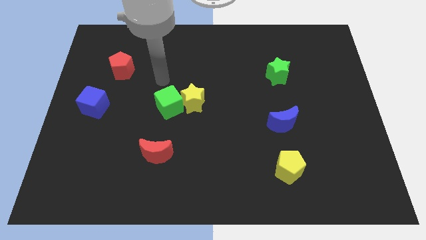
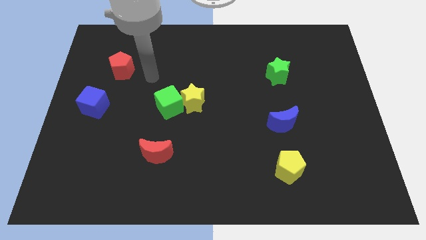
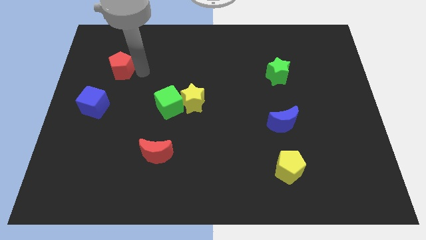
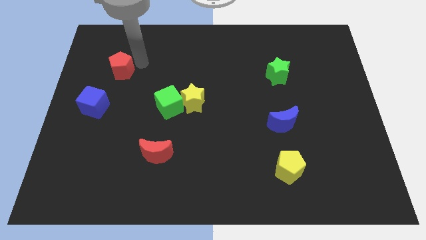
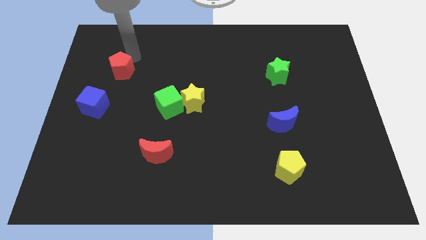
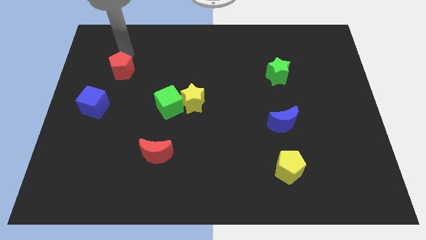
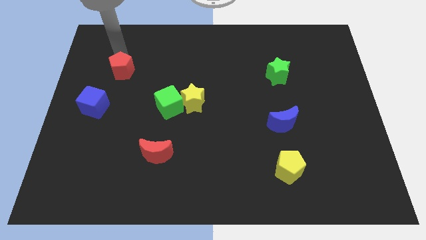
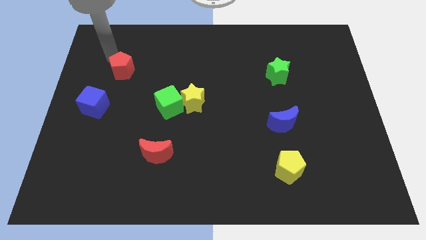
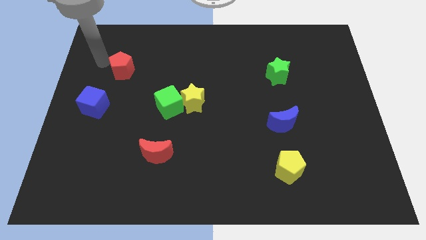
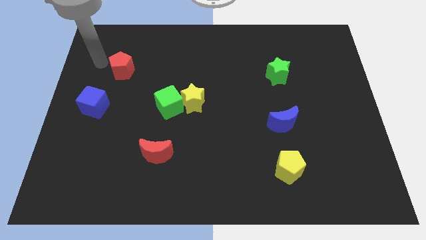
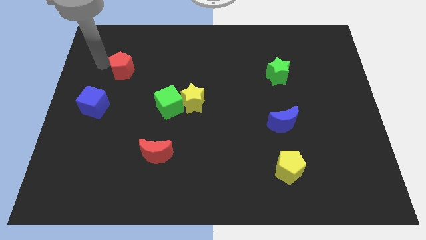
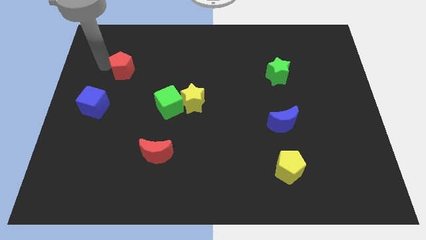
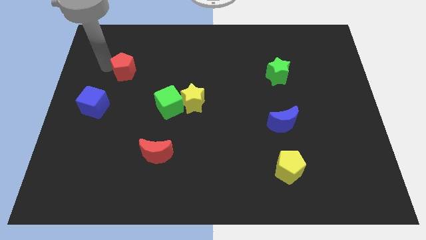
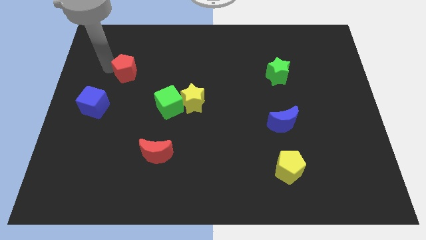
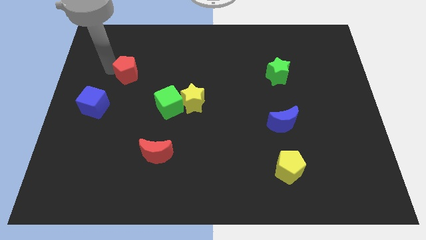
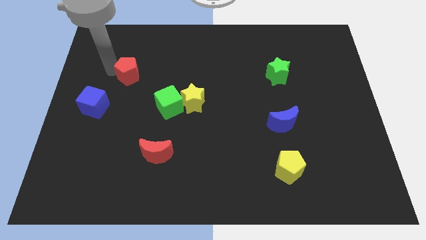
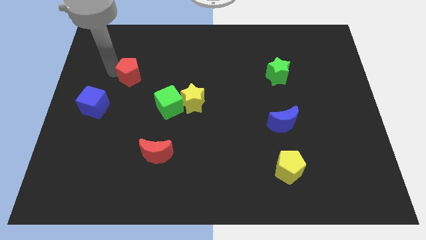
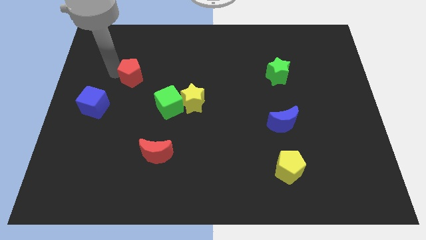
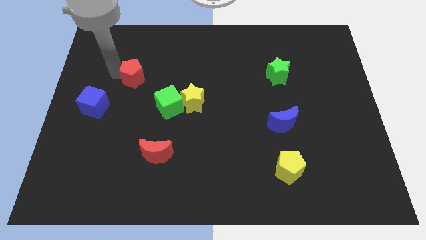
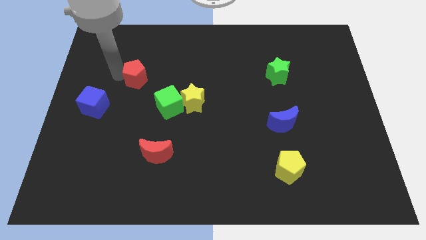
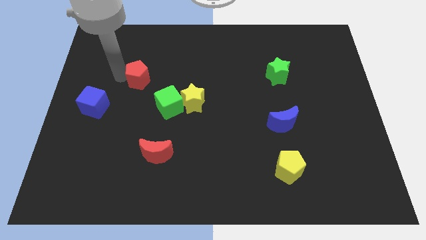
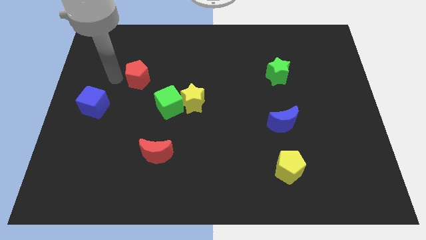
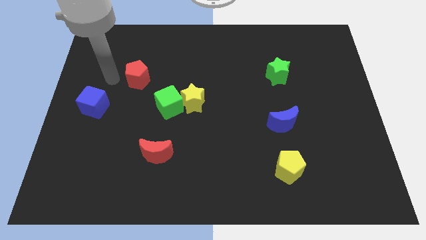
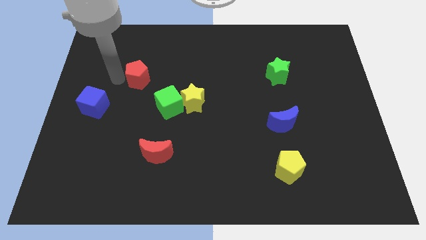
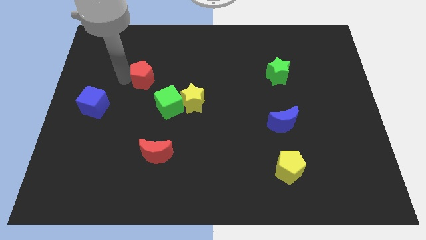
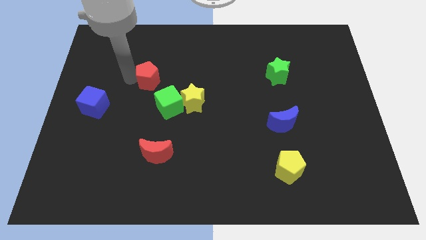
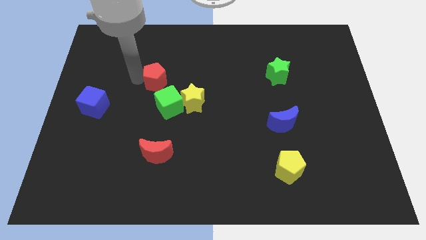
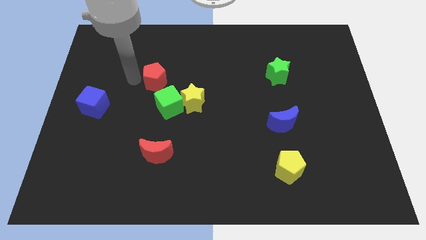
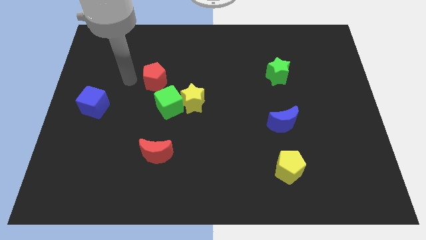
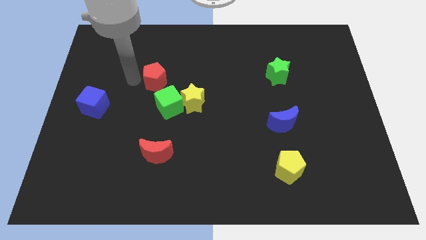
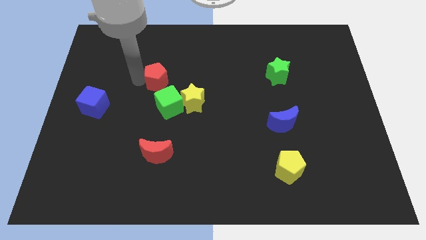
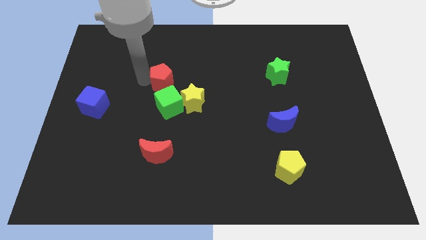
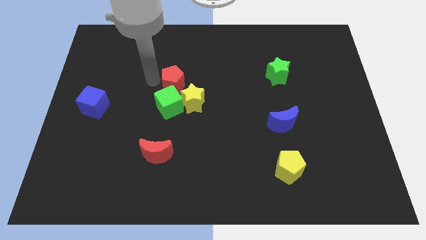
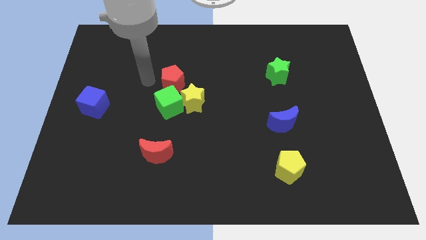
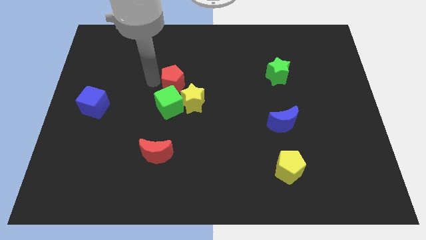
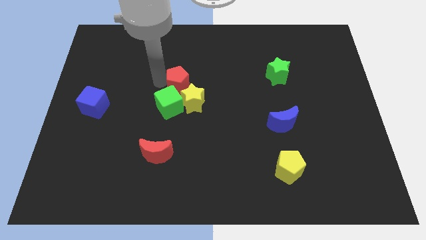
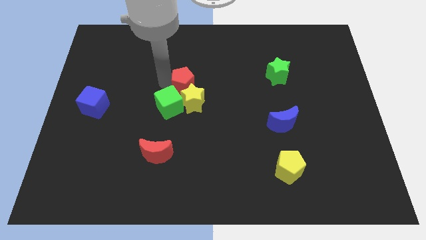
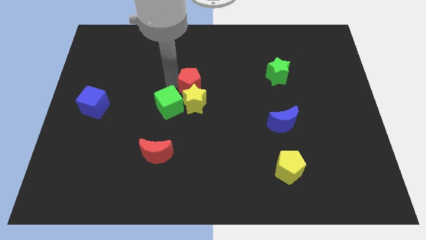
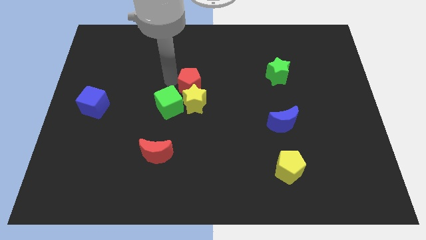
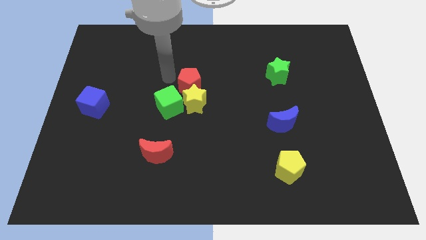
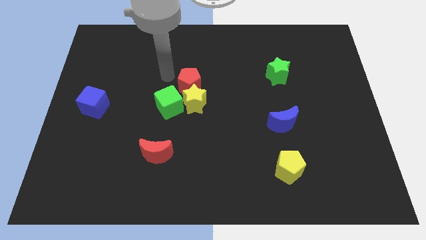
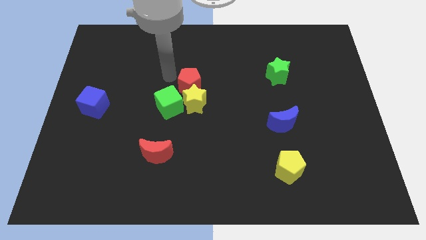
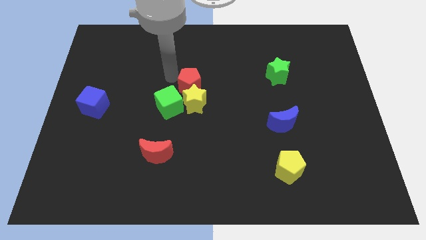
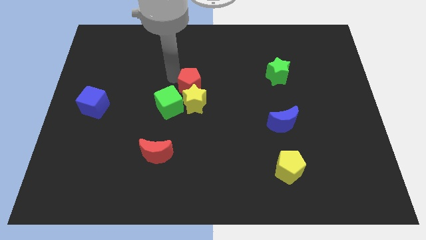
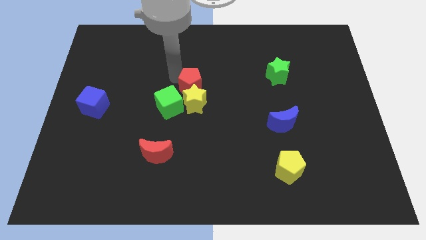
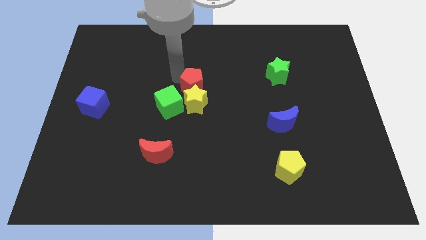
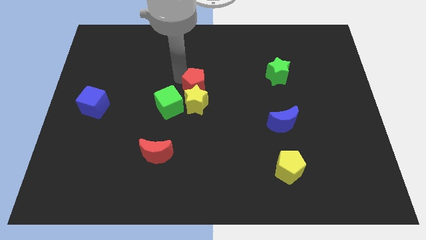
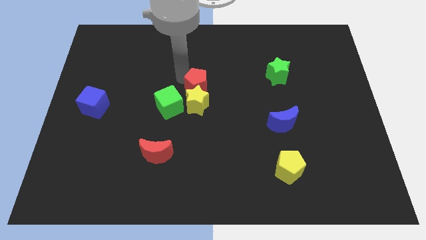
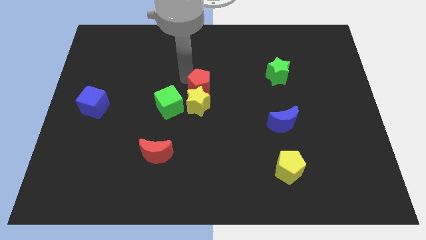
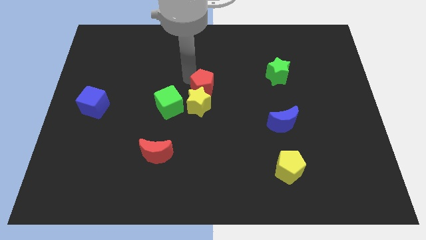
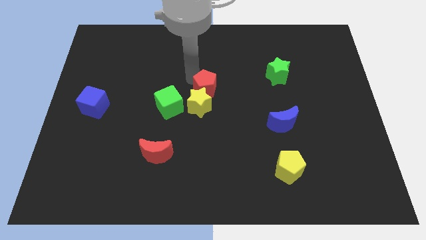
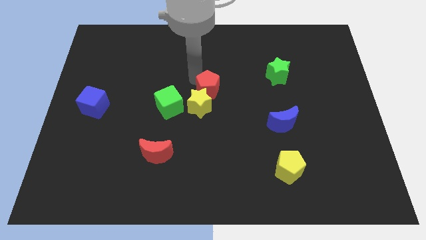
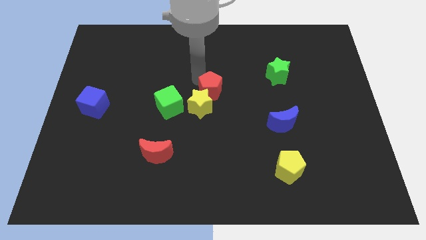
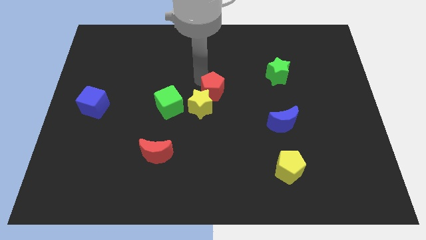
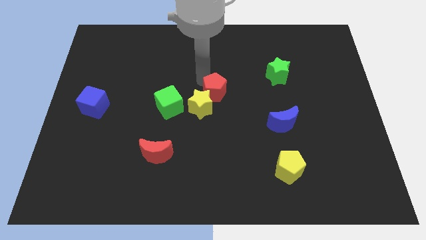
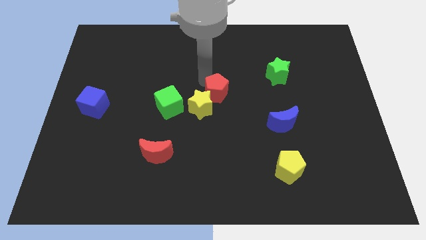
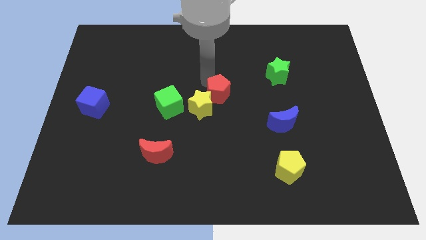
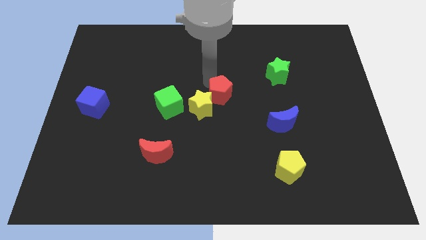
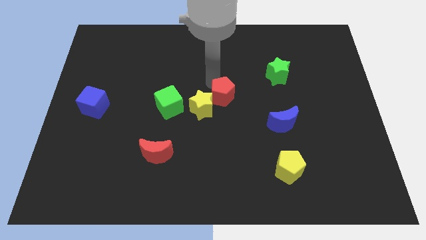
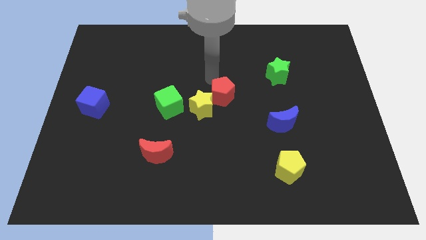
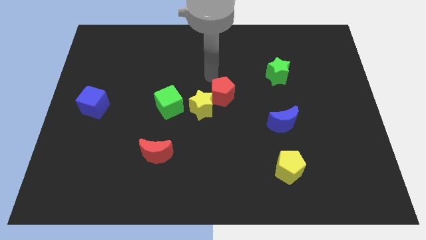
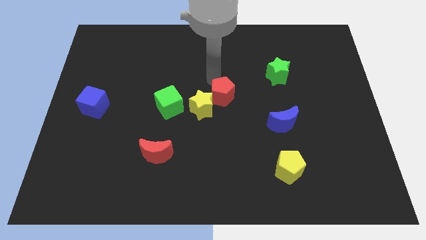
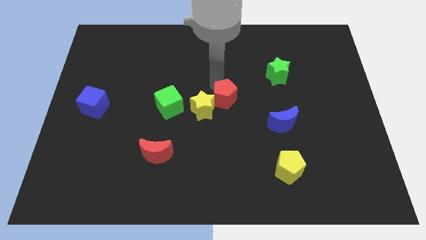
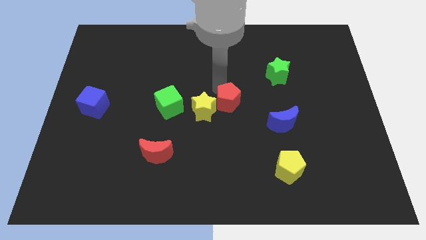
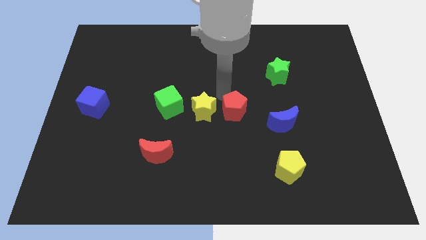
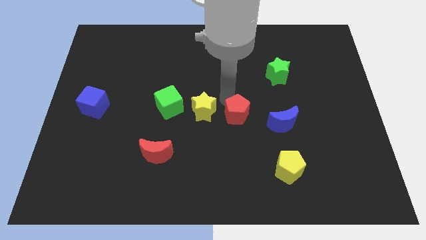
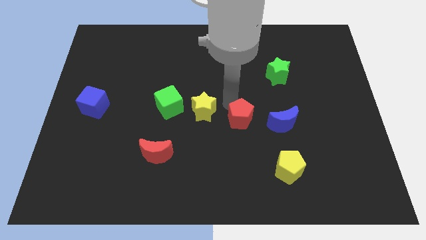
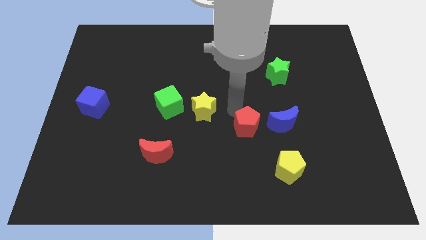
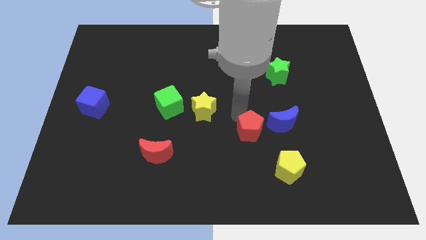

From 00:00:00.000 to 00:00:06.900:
push the red pentagon to the bottom left side of the blue moon
